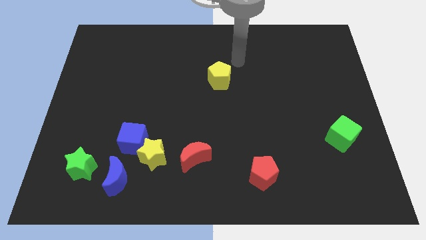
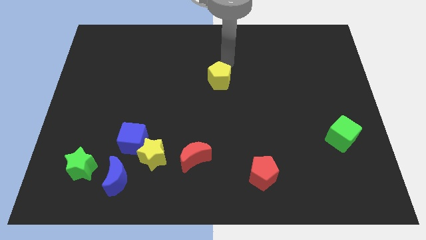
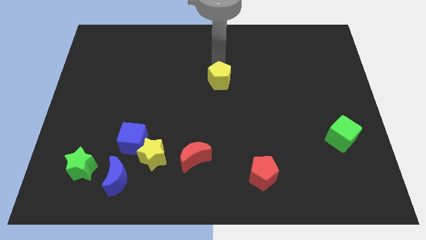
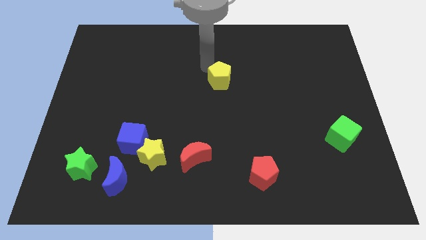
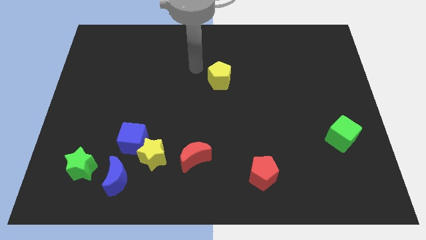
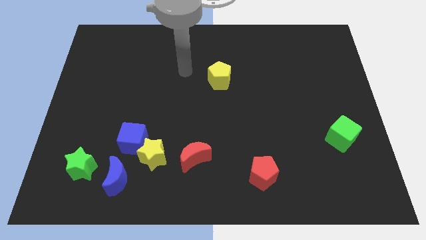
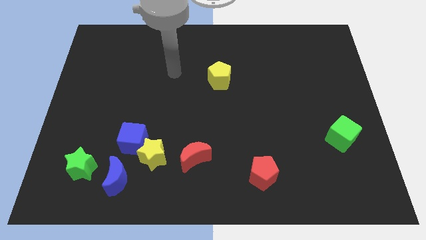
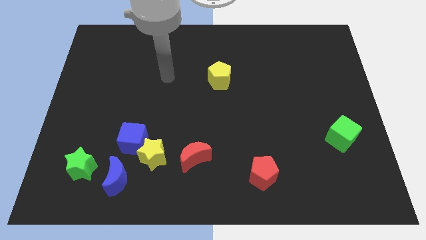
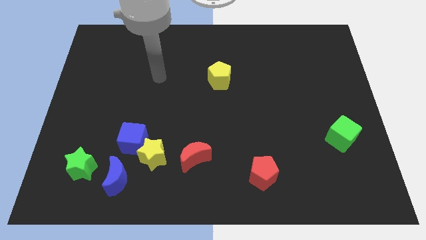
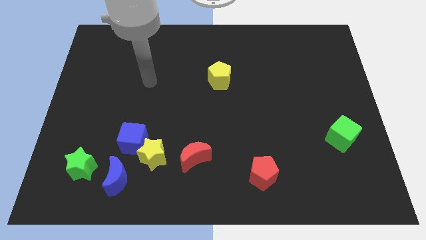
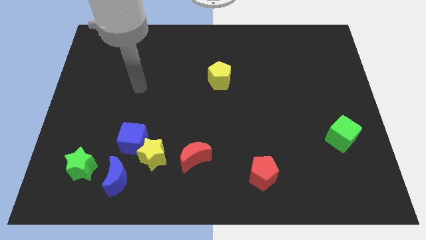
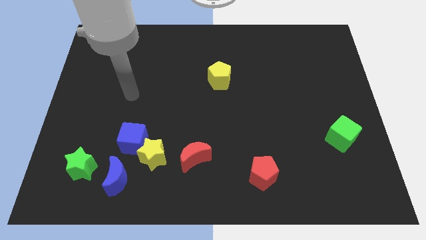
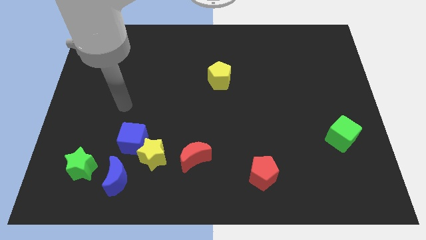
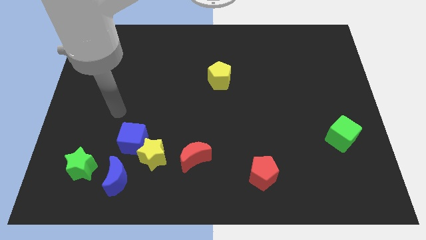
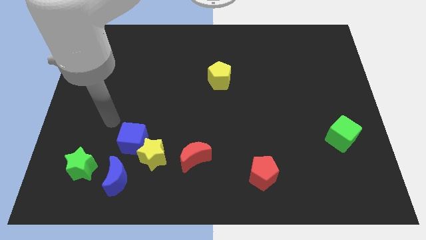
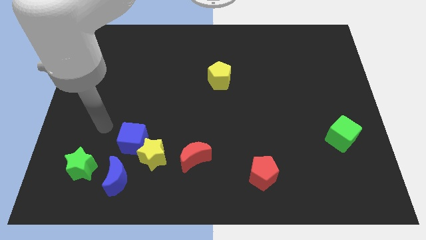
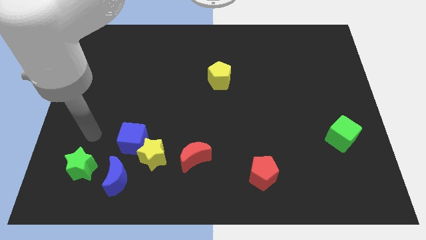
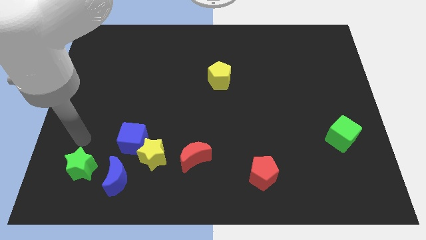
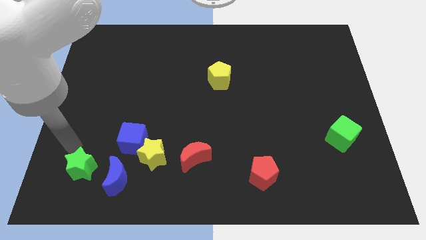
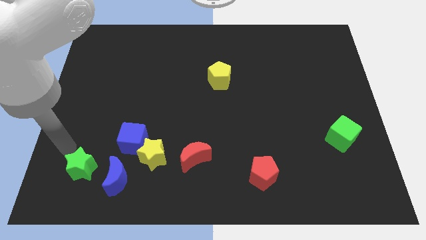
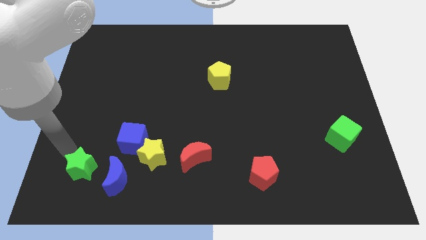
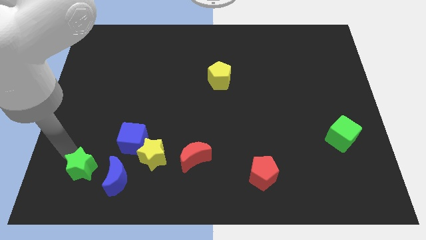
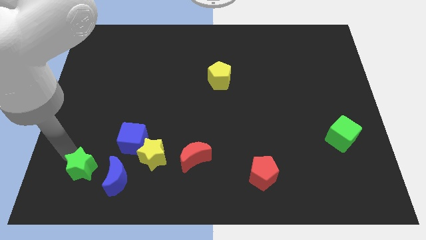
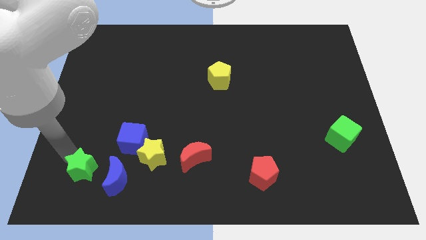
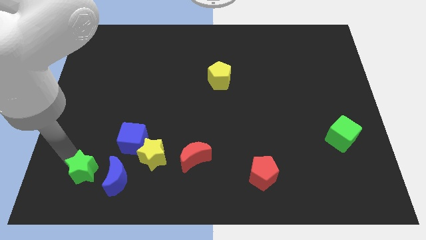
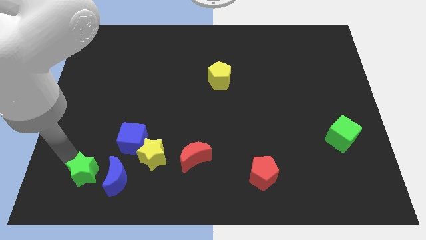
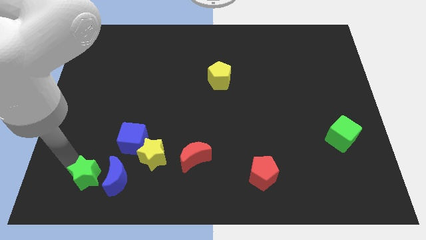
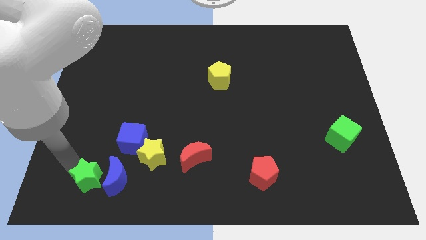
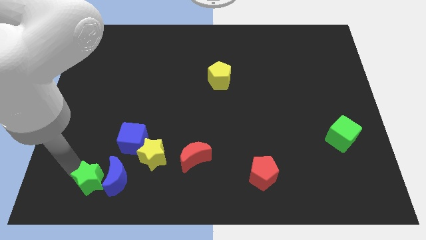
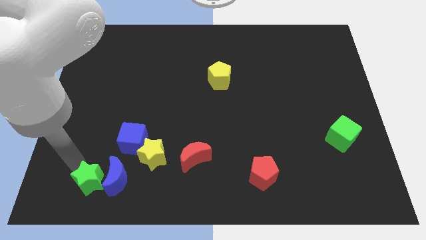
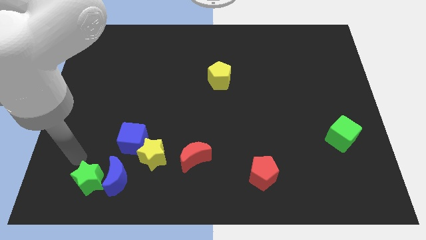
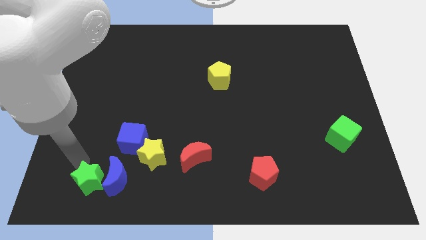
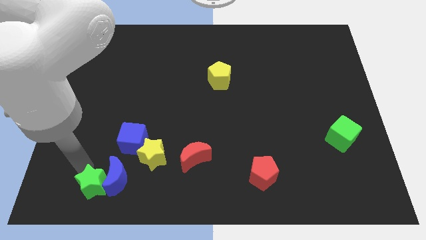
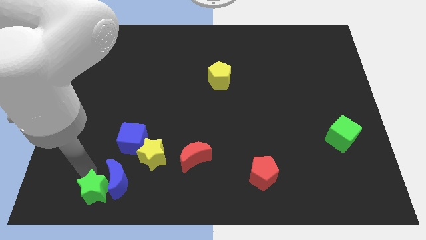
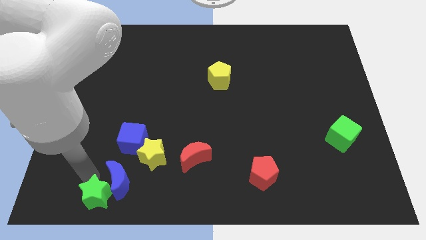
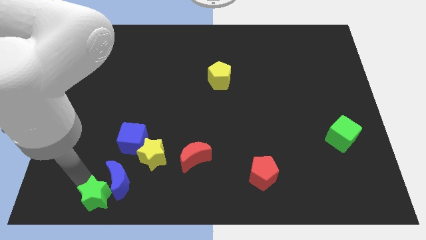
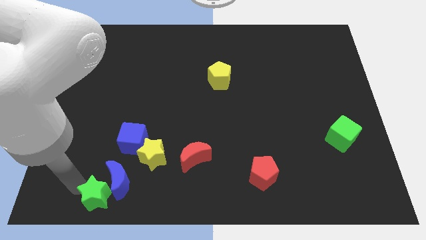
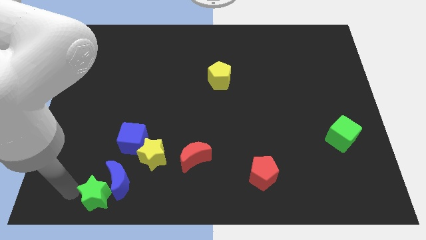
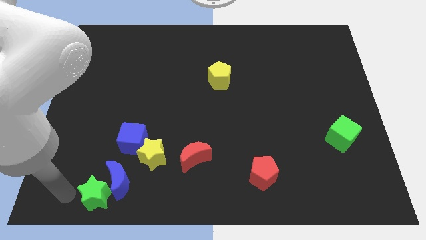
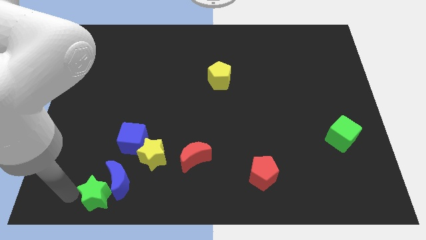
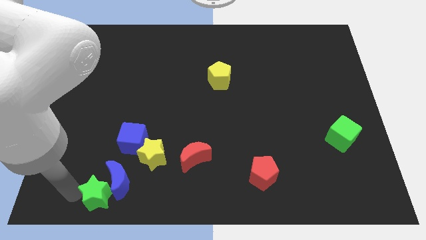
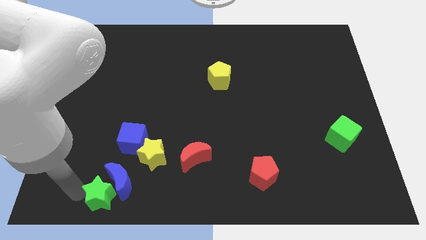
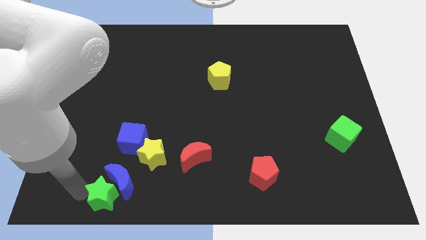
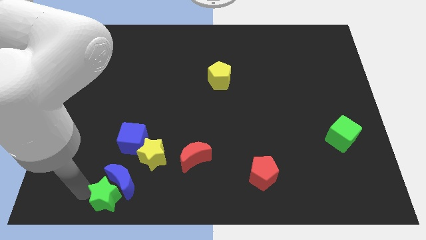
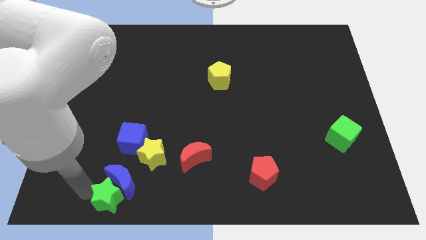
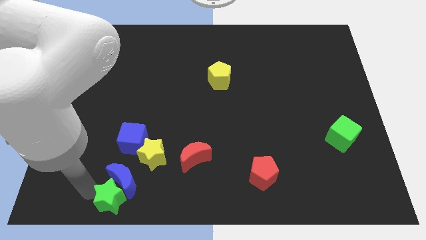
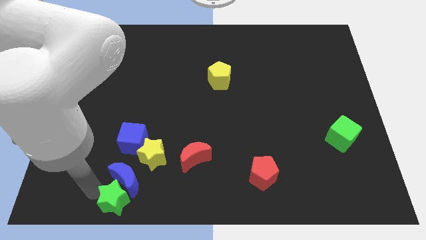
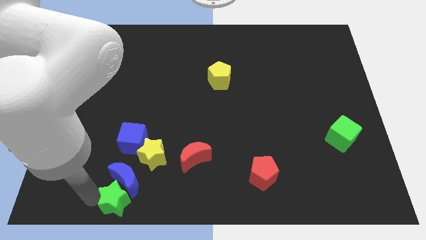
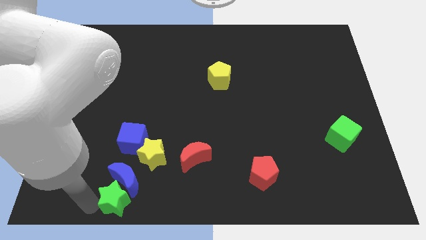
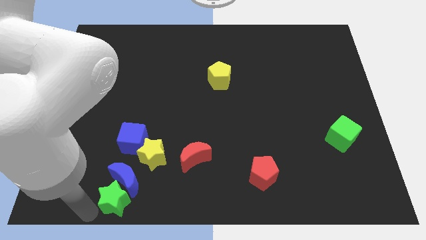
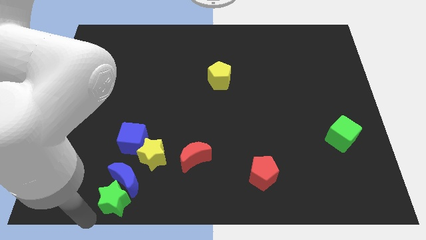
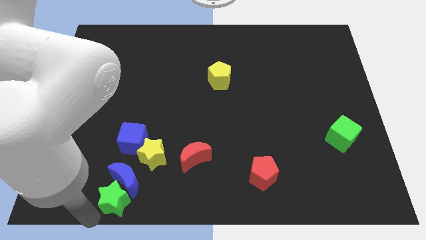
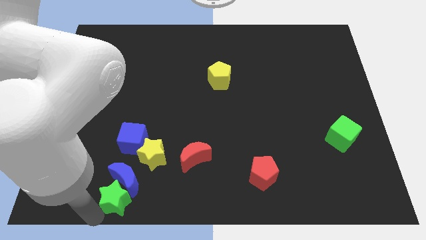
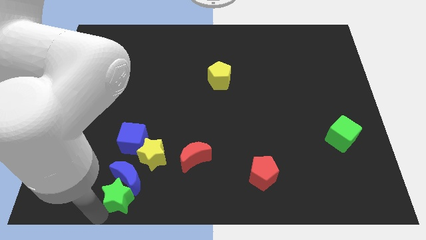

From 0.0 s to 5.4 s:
push the green star a little right

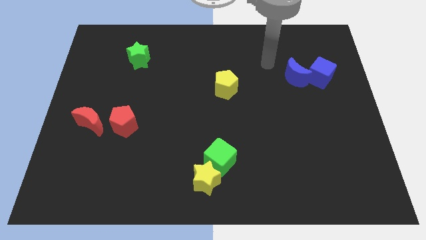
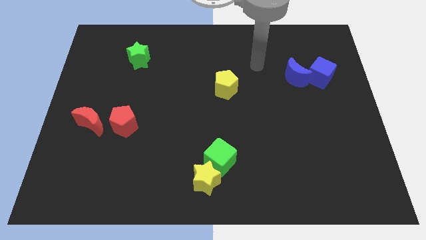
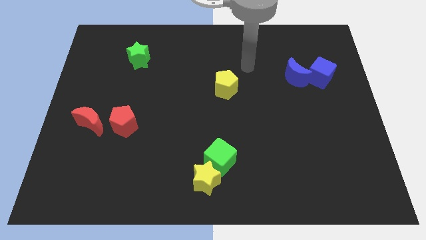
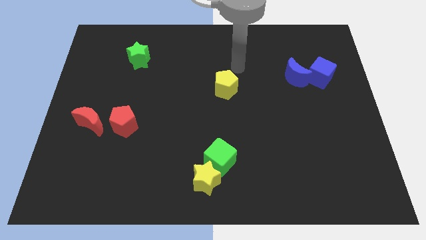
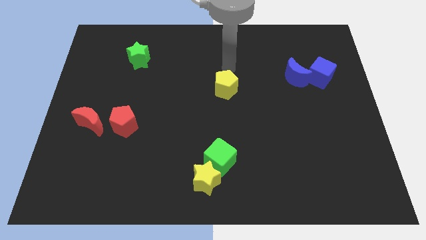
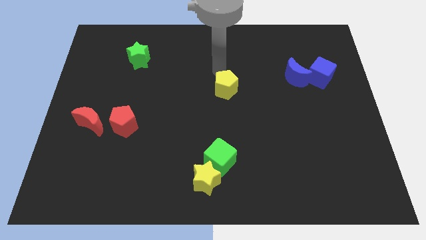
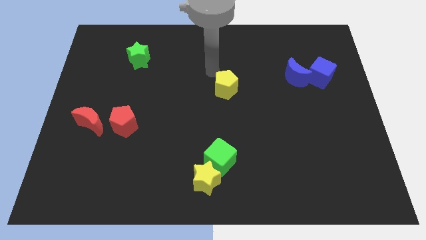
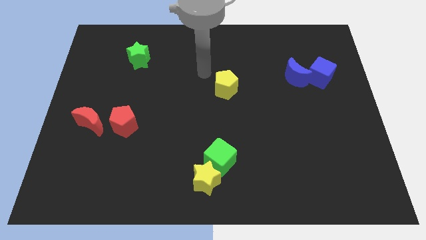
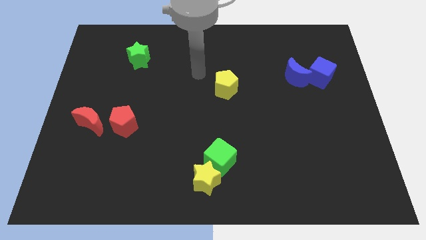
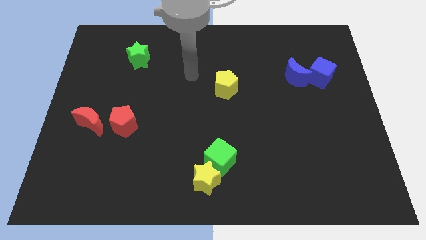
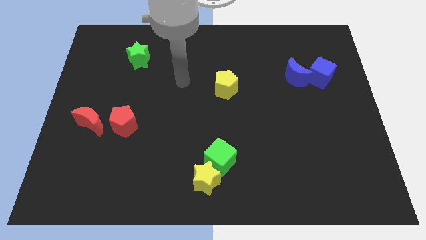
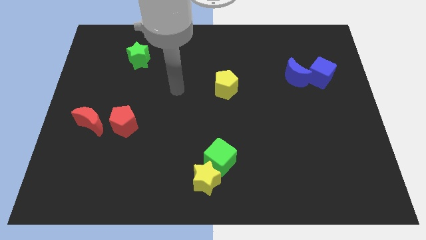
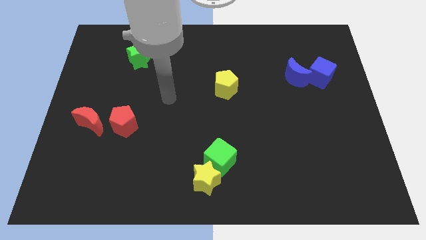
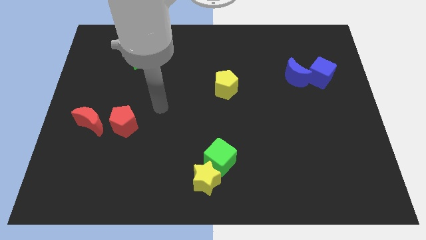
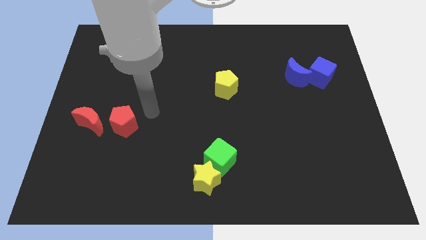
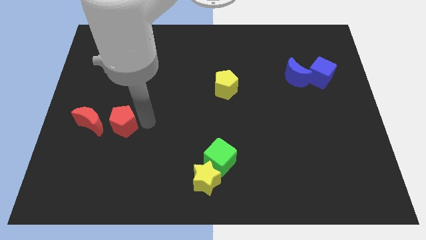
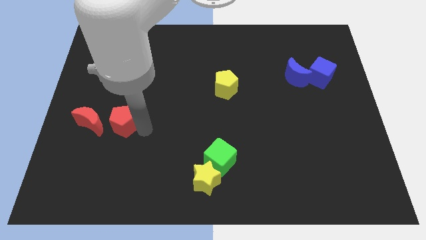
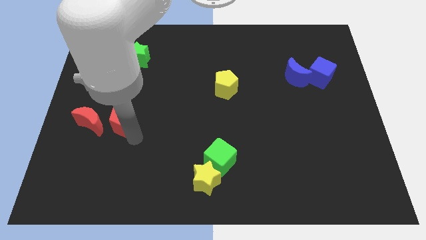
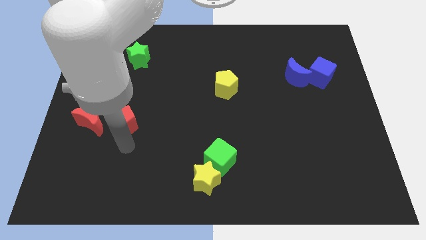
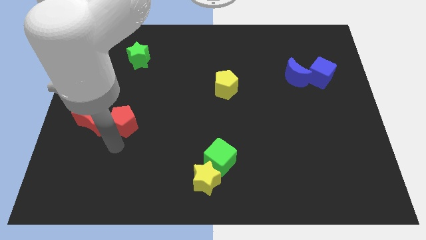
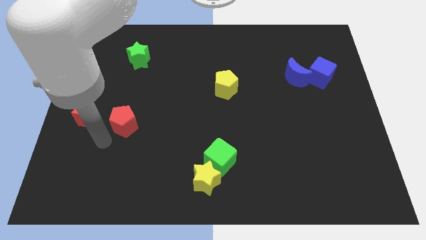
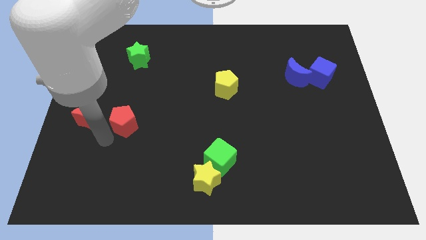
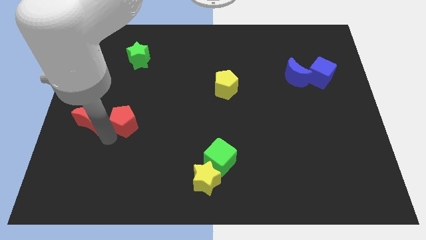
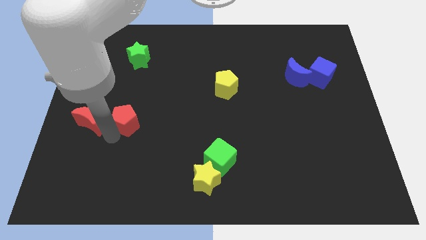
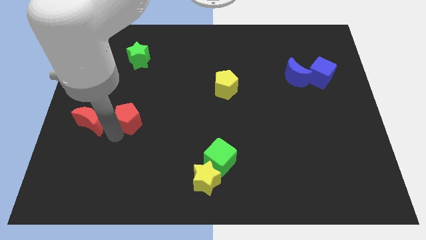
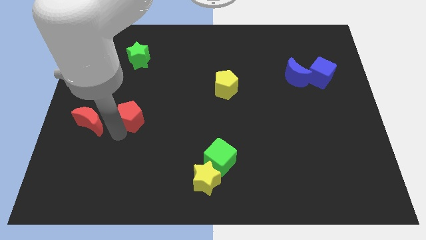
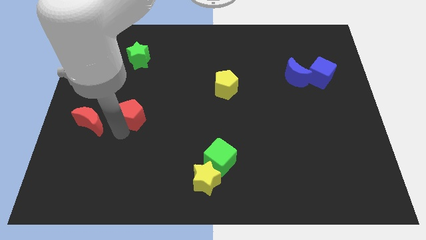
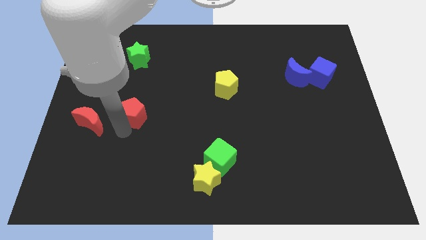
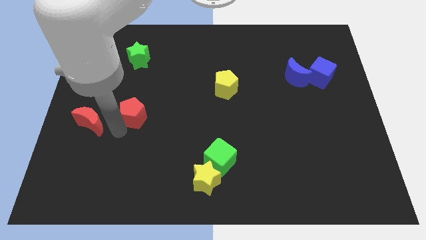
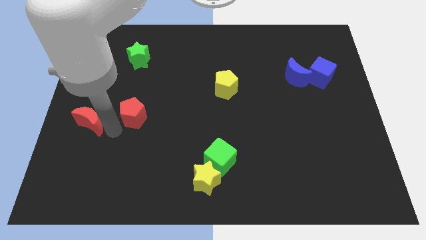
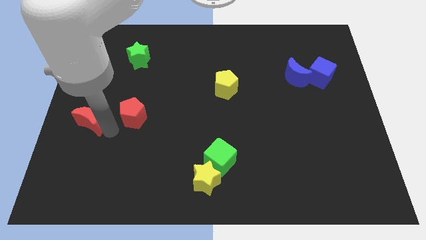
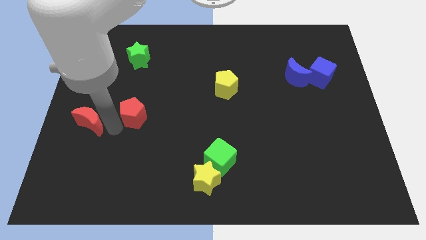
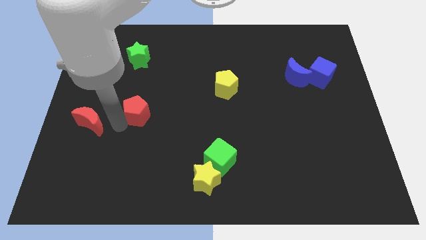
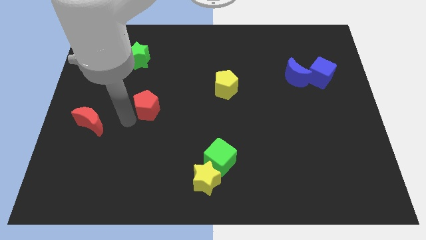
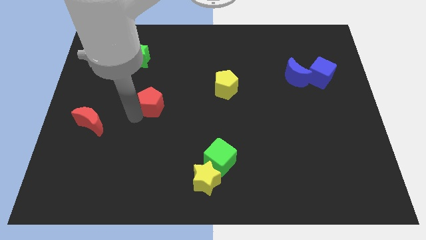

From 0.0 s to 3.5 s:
slightly slide the red pentagon upwards and then to the right
